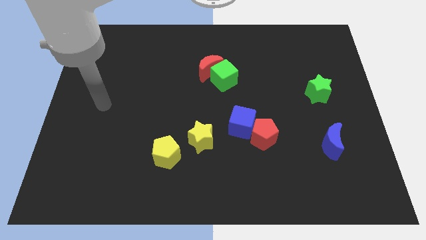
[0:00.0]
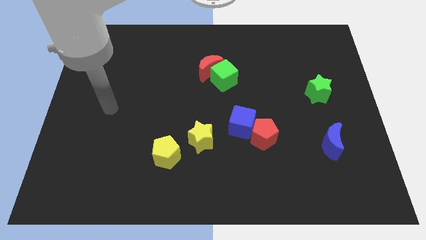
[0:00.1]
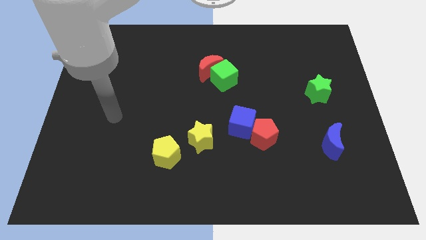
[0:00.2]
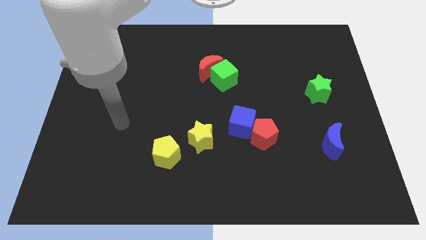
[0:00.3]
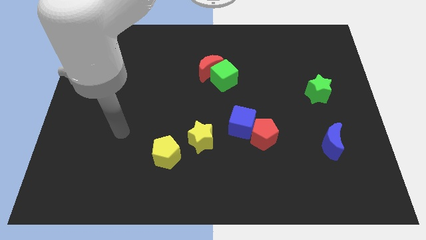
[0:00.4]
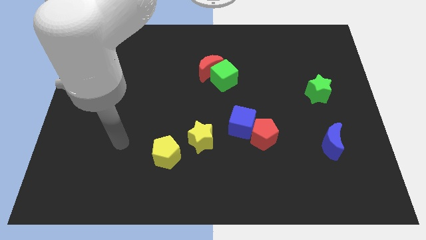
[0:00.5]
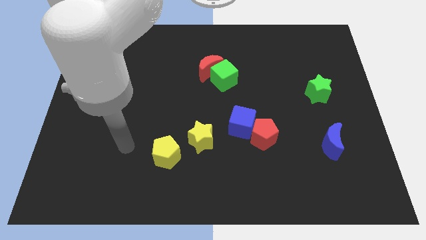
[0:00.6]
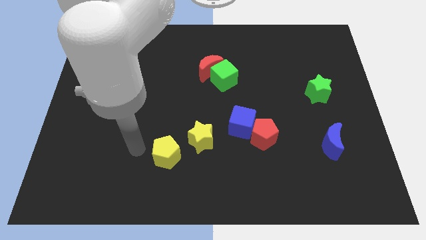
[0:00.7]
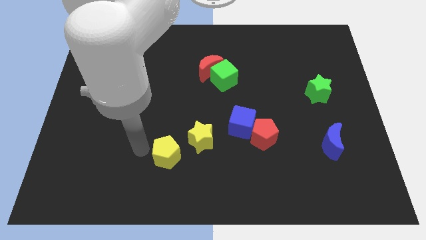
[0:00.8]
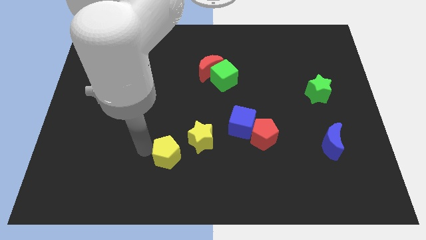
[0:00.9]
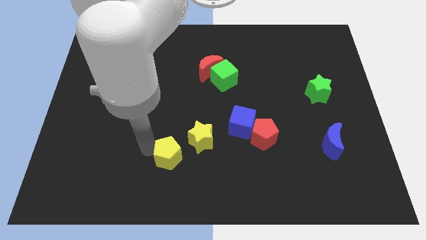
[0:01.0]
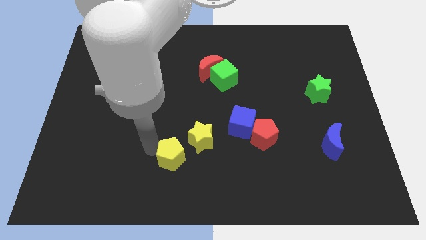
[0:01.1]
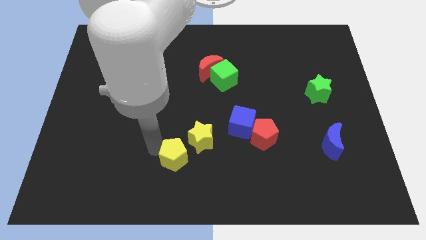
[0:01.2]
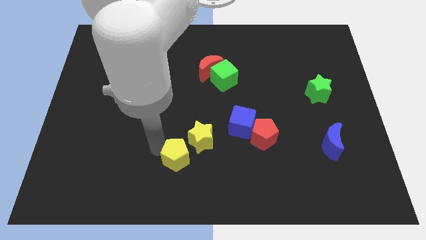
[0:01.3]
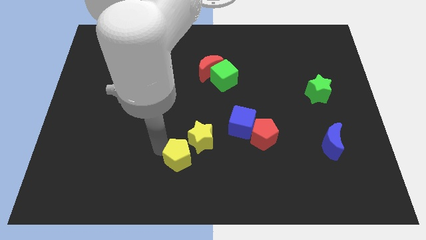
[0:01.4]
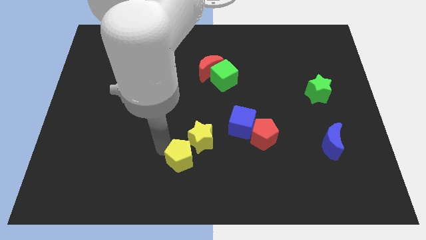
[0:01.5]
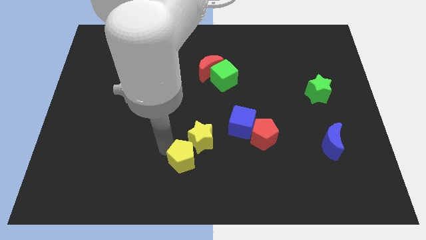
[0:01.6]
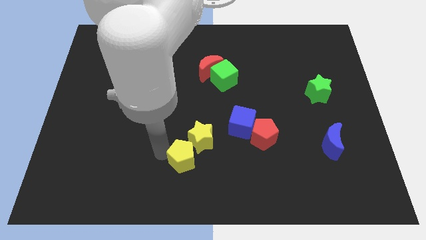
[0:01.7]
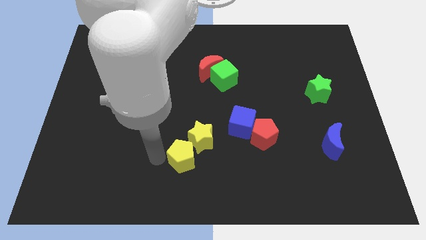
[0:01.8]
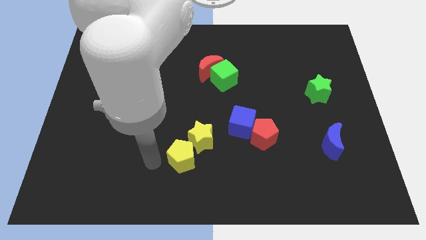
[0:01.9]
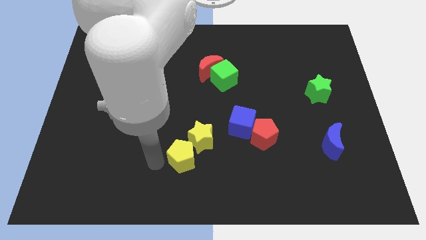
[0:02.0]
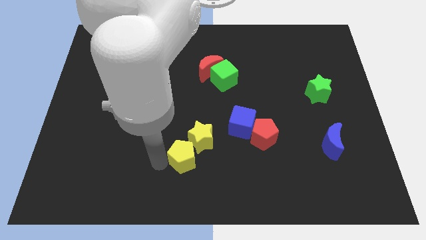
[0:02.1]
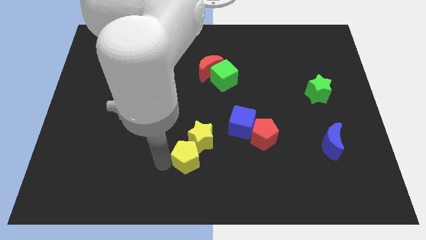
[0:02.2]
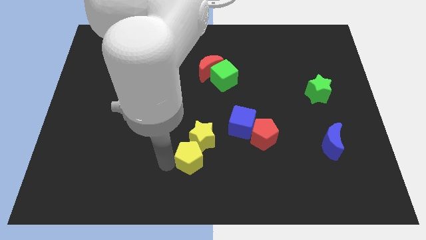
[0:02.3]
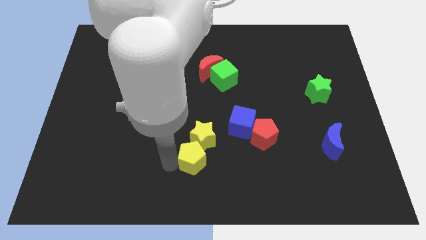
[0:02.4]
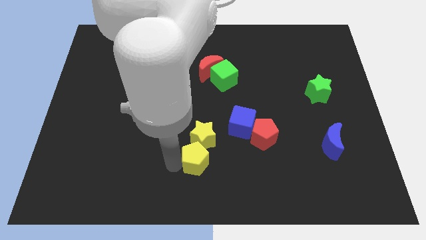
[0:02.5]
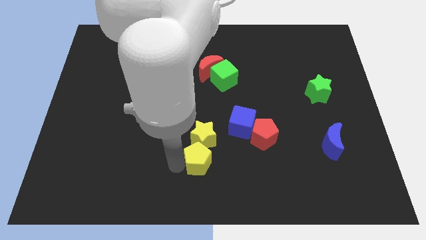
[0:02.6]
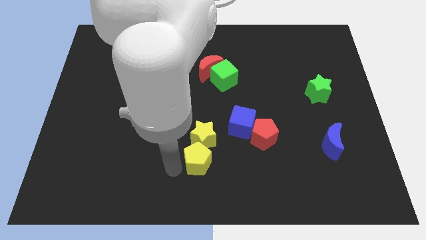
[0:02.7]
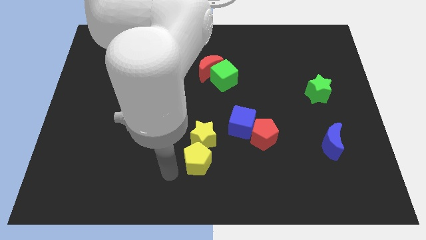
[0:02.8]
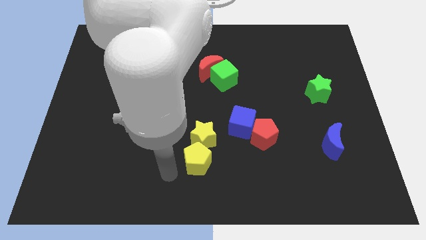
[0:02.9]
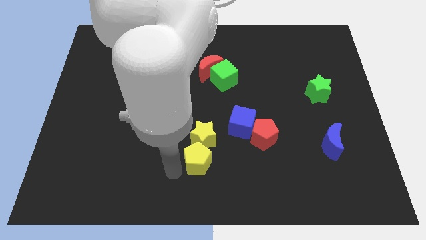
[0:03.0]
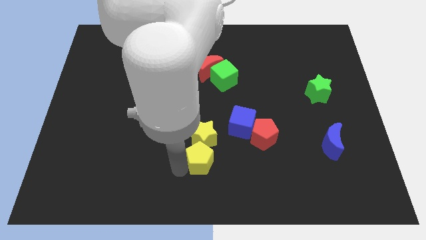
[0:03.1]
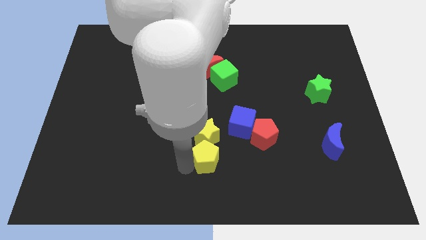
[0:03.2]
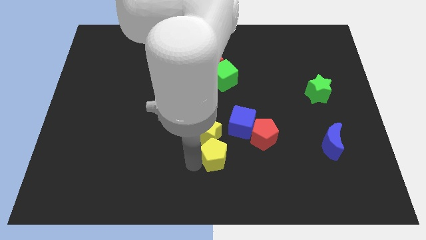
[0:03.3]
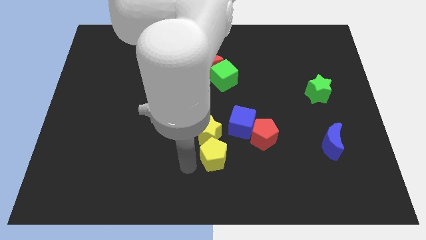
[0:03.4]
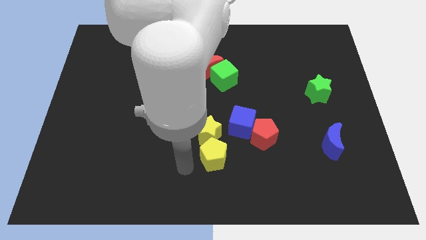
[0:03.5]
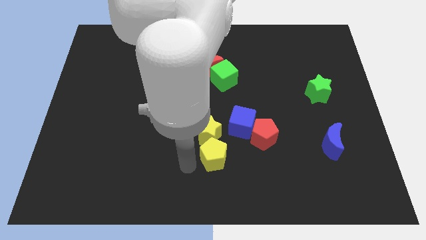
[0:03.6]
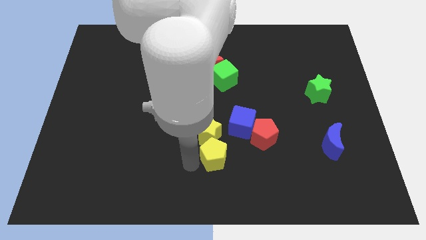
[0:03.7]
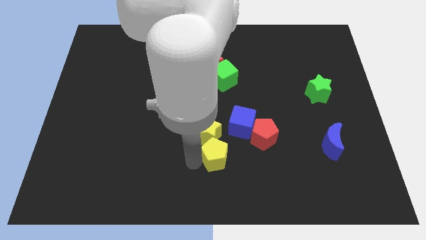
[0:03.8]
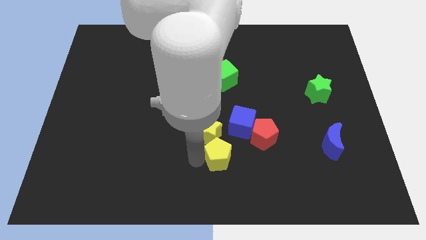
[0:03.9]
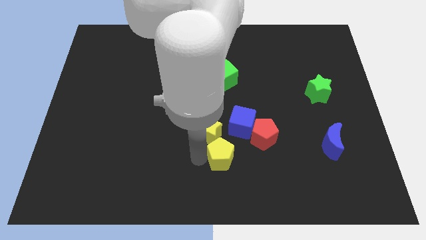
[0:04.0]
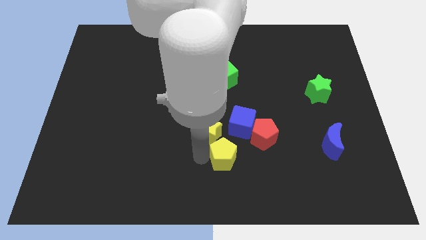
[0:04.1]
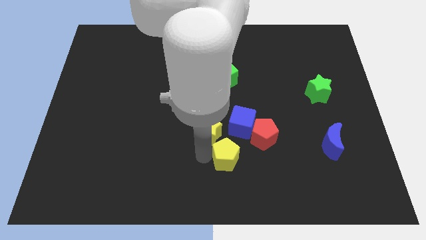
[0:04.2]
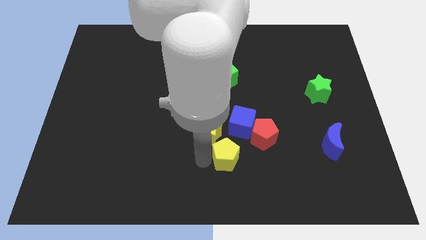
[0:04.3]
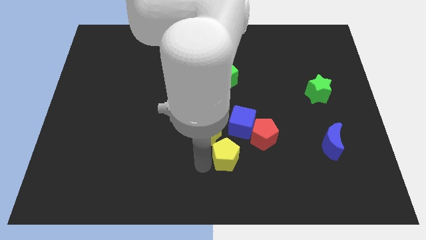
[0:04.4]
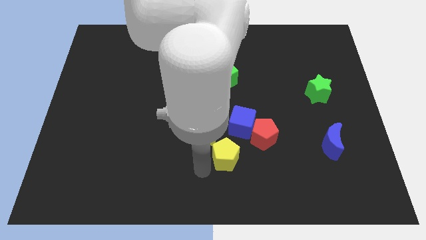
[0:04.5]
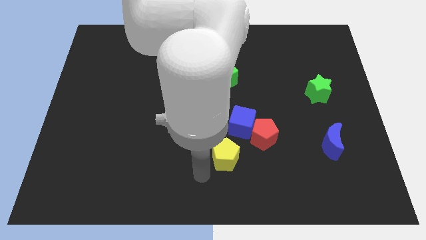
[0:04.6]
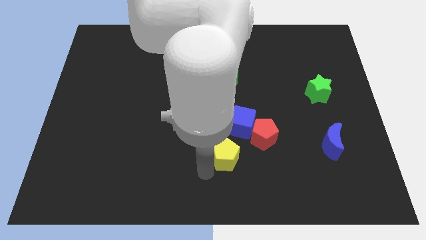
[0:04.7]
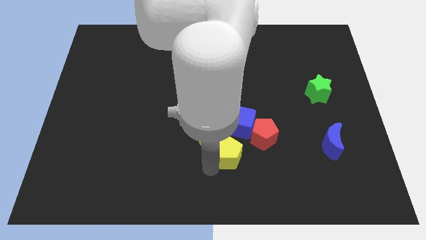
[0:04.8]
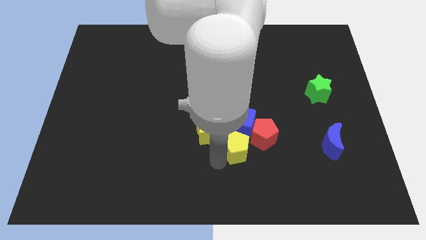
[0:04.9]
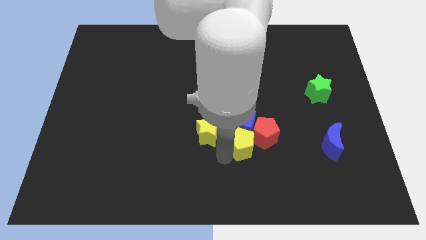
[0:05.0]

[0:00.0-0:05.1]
put the yellow pentagon close to the red pentagon
